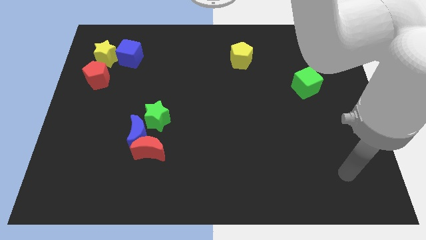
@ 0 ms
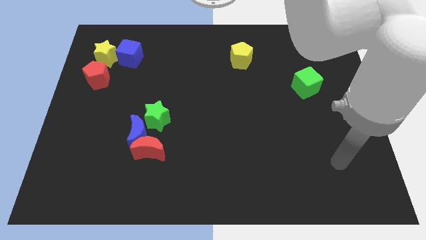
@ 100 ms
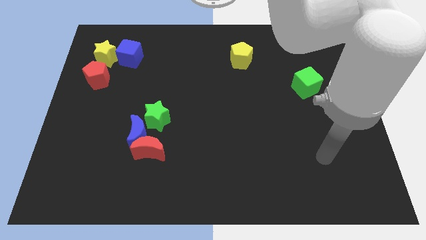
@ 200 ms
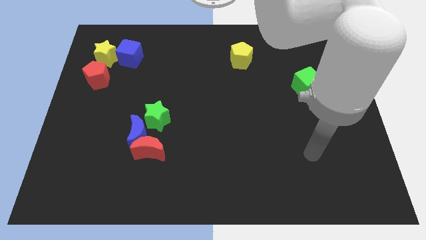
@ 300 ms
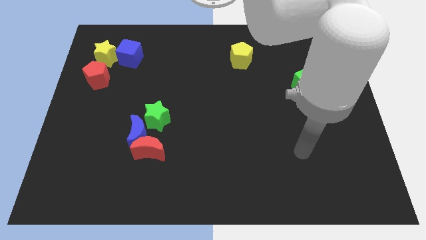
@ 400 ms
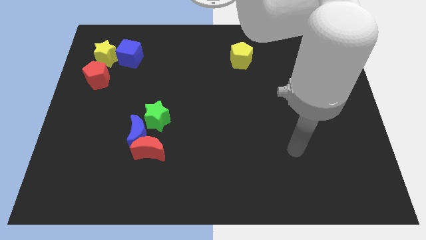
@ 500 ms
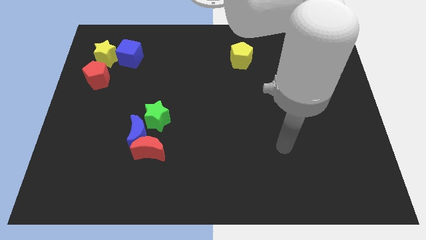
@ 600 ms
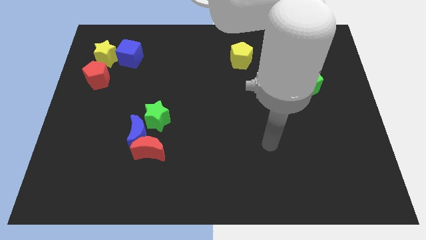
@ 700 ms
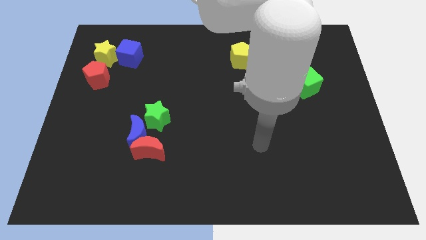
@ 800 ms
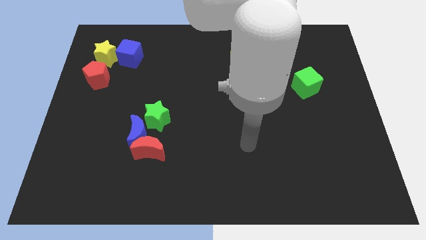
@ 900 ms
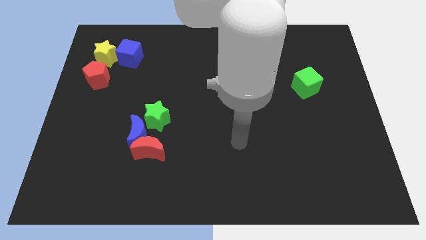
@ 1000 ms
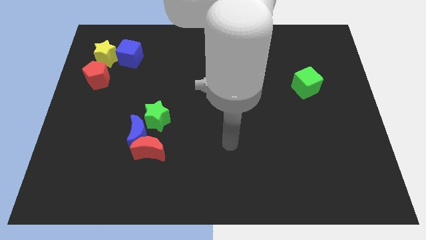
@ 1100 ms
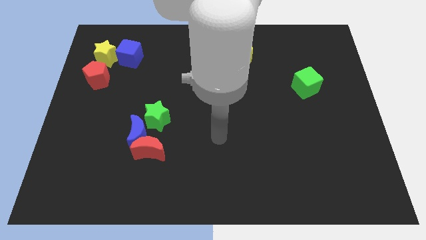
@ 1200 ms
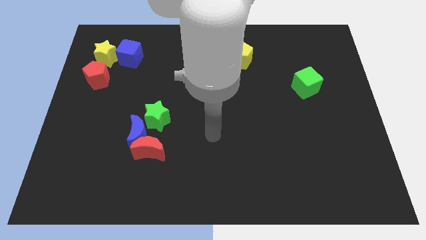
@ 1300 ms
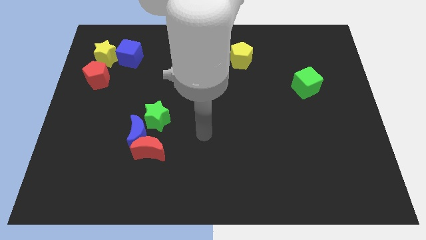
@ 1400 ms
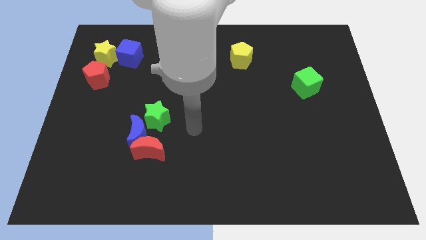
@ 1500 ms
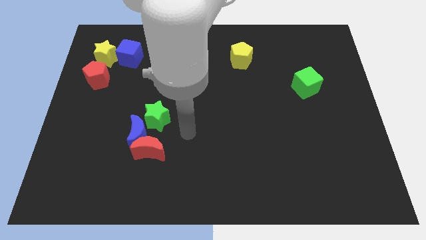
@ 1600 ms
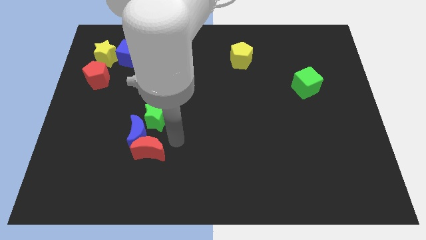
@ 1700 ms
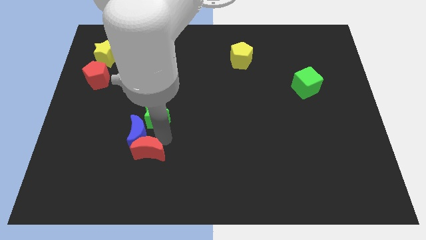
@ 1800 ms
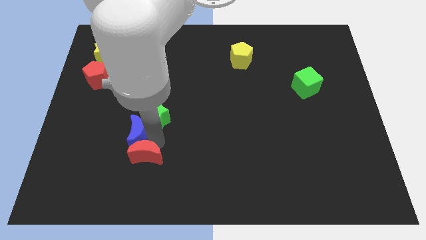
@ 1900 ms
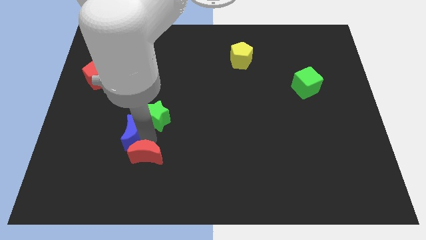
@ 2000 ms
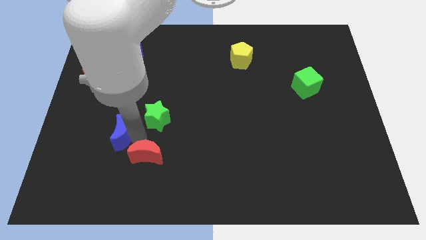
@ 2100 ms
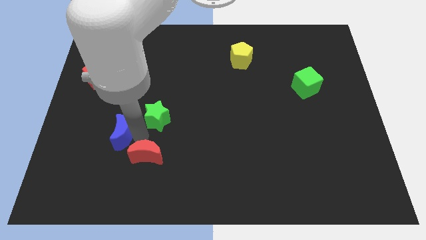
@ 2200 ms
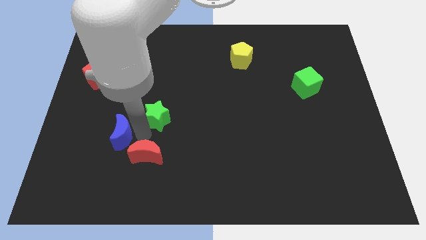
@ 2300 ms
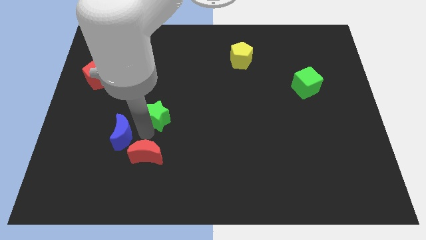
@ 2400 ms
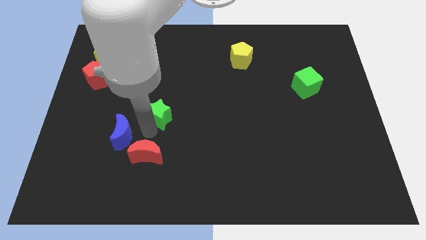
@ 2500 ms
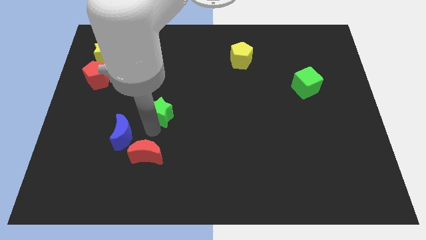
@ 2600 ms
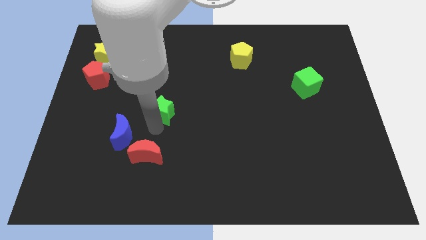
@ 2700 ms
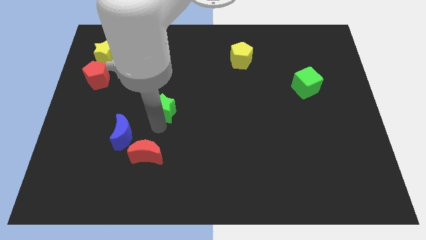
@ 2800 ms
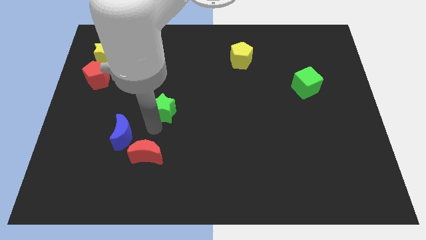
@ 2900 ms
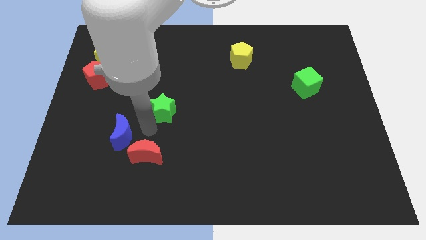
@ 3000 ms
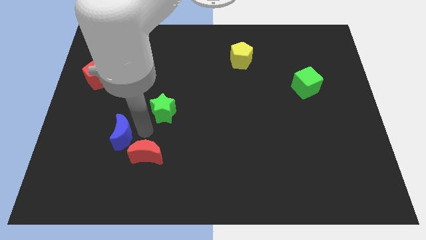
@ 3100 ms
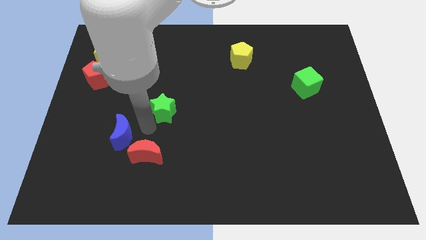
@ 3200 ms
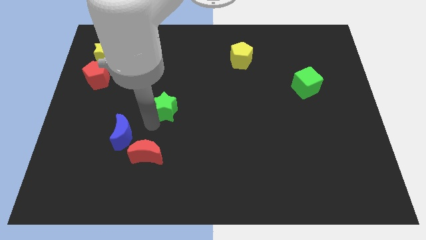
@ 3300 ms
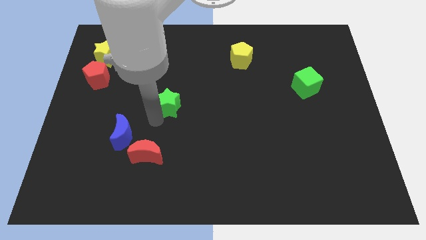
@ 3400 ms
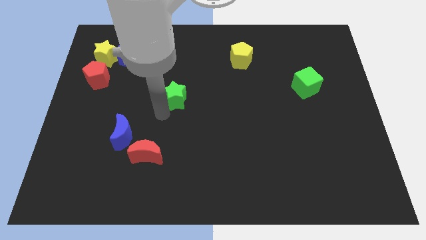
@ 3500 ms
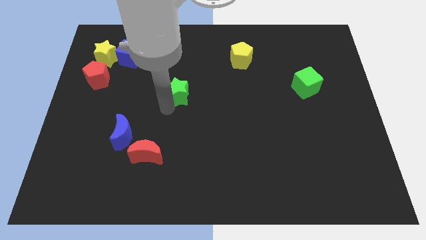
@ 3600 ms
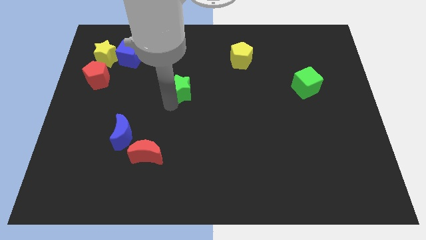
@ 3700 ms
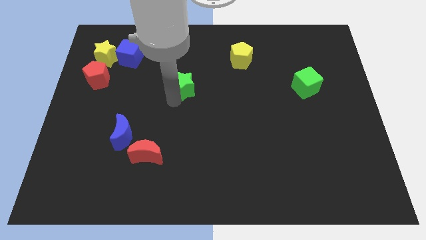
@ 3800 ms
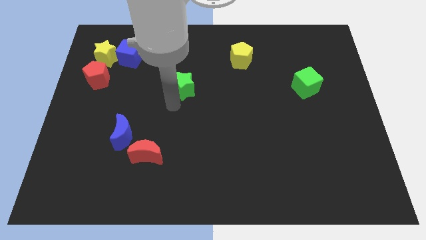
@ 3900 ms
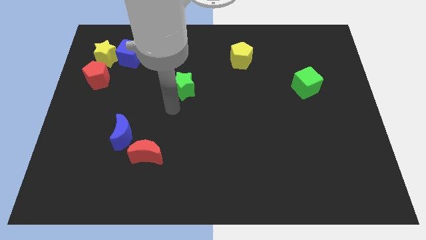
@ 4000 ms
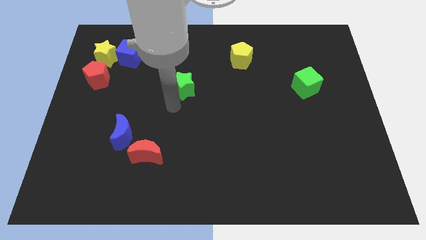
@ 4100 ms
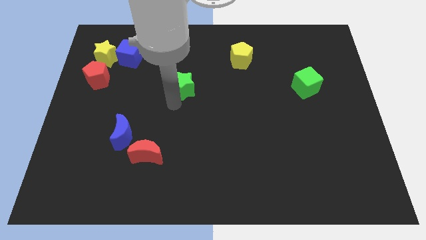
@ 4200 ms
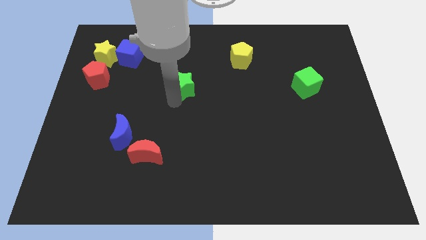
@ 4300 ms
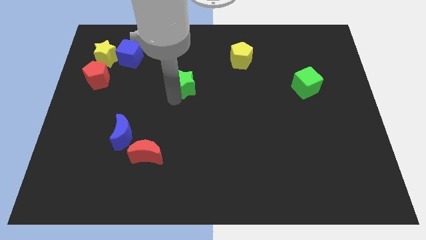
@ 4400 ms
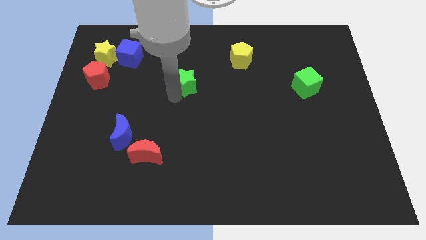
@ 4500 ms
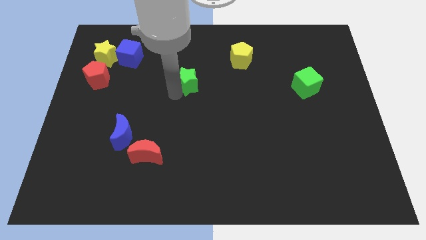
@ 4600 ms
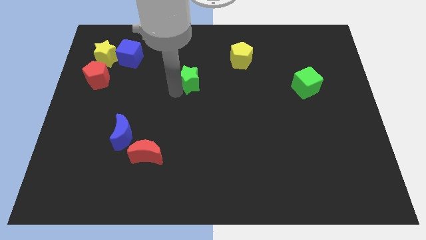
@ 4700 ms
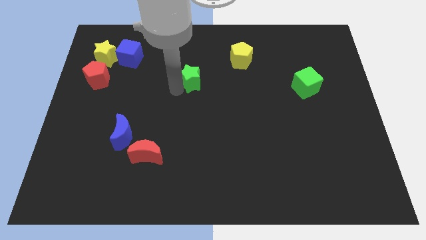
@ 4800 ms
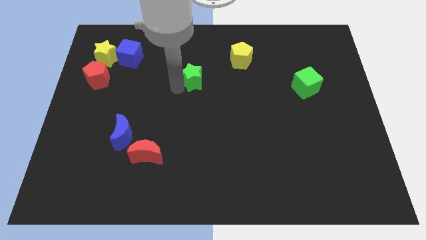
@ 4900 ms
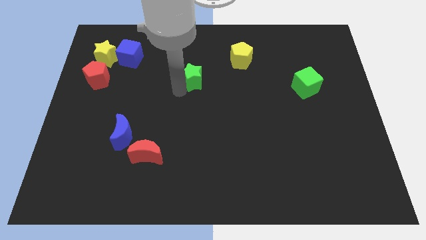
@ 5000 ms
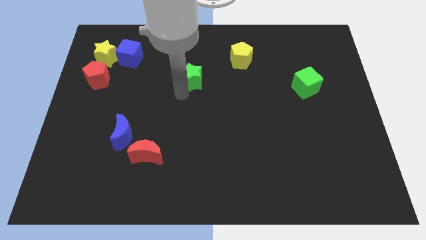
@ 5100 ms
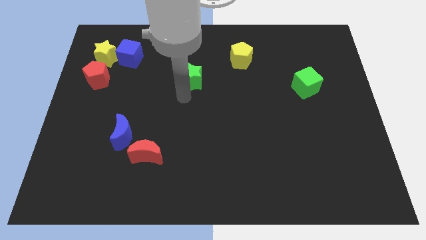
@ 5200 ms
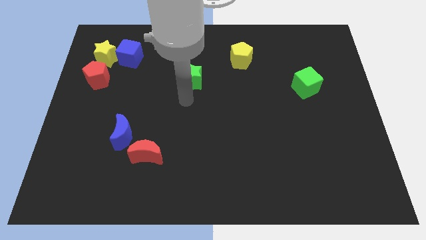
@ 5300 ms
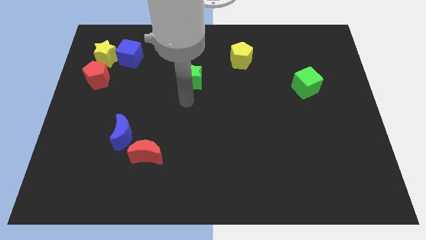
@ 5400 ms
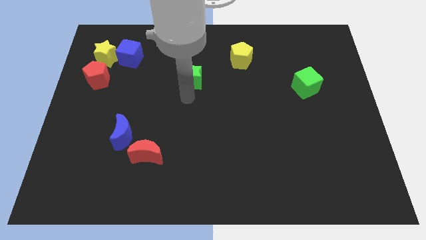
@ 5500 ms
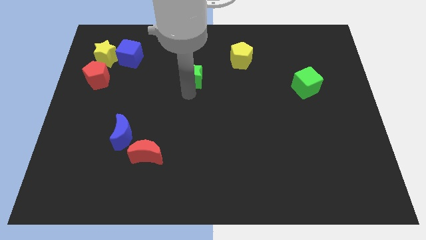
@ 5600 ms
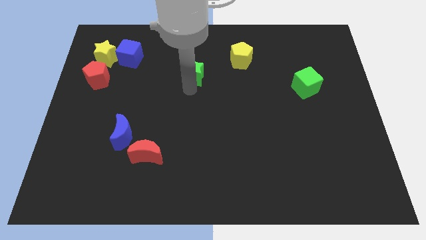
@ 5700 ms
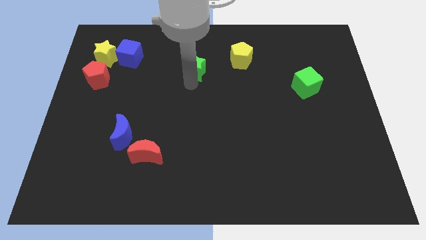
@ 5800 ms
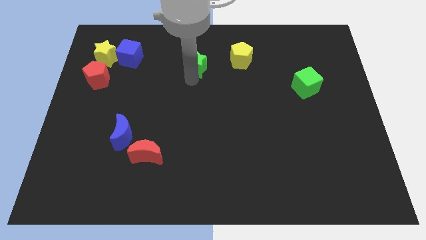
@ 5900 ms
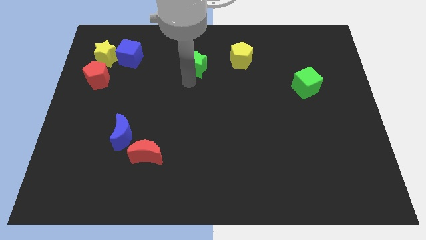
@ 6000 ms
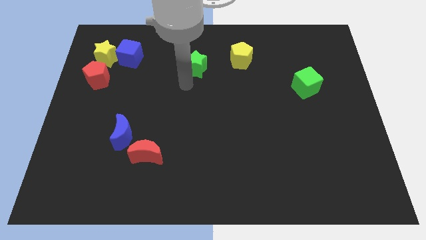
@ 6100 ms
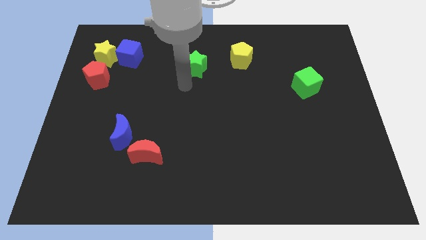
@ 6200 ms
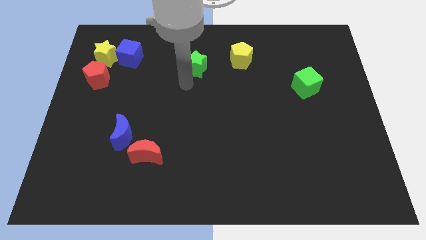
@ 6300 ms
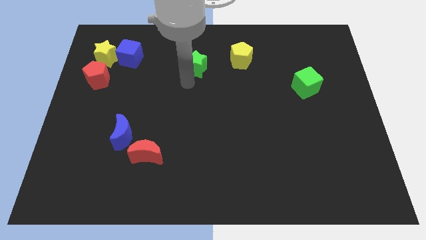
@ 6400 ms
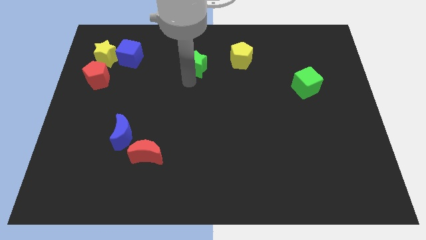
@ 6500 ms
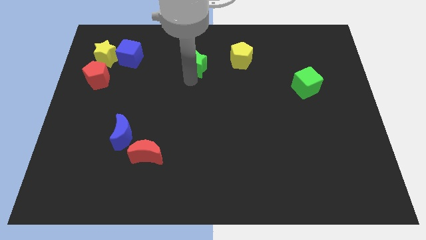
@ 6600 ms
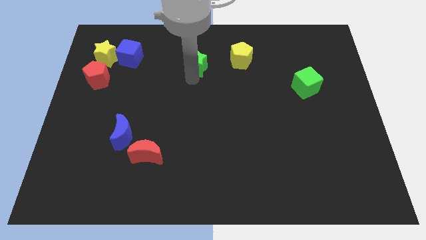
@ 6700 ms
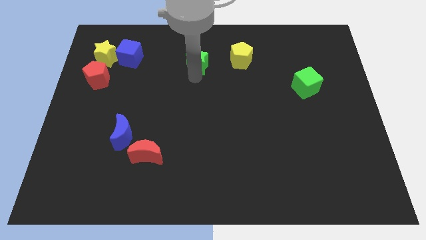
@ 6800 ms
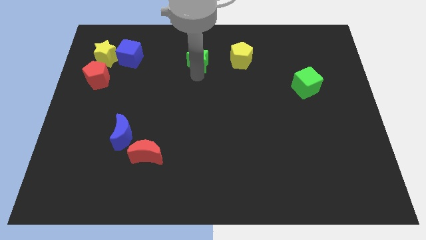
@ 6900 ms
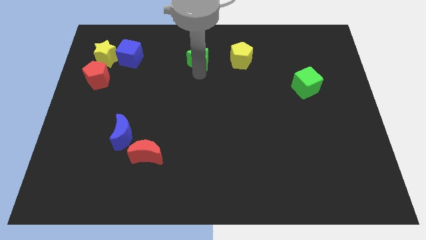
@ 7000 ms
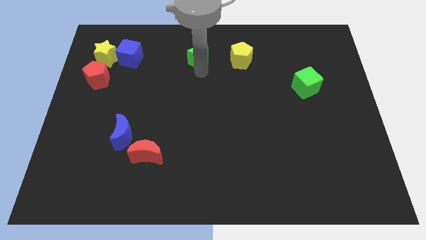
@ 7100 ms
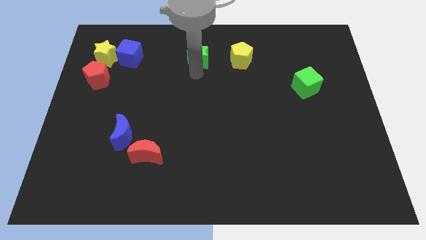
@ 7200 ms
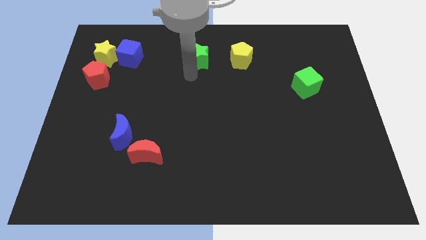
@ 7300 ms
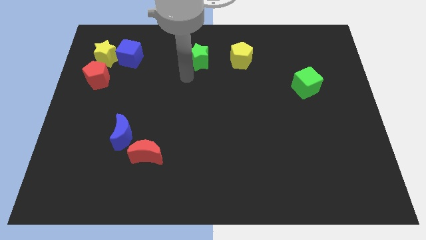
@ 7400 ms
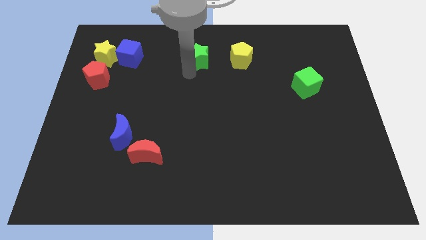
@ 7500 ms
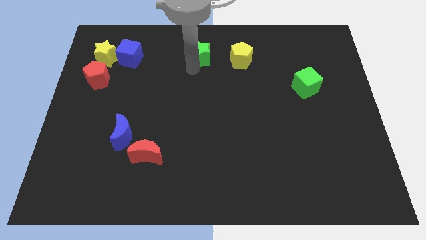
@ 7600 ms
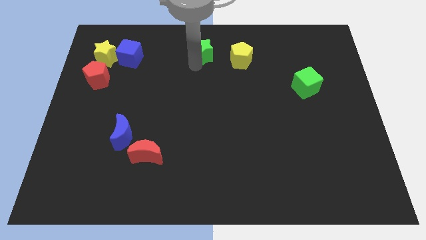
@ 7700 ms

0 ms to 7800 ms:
move the green star to the towards your base

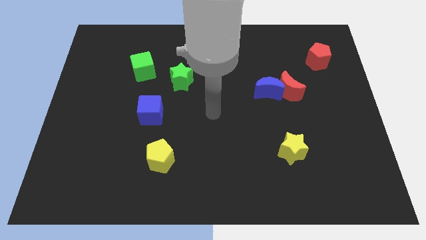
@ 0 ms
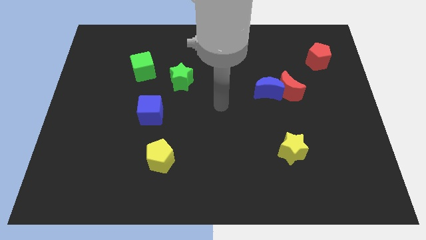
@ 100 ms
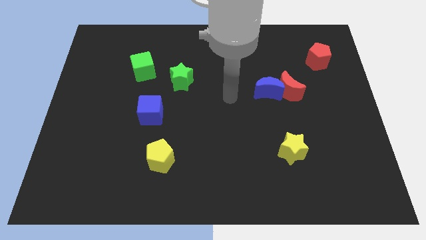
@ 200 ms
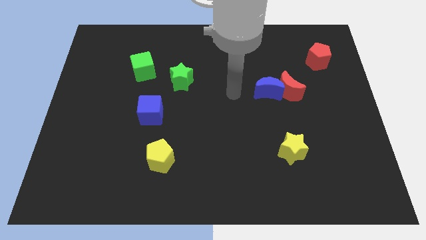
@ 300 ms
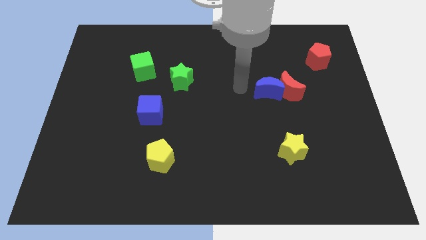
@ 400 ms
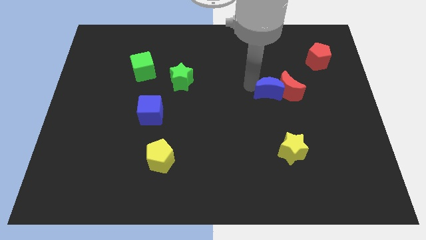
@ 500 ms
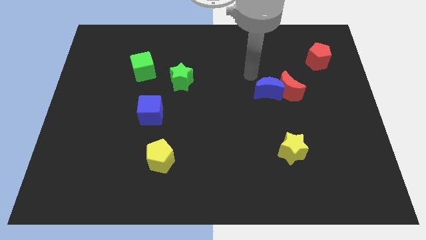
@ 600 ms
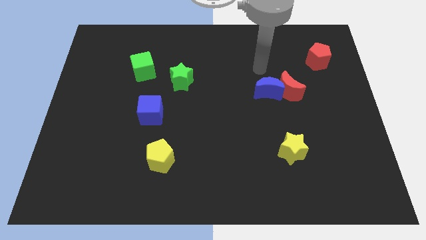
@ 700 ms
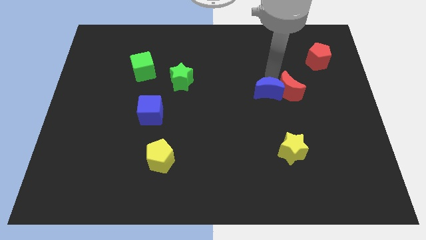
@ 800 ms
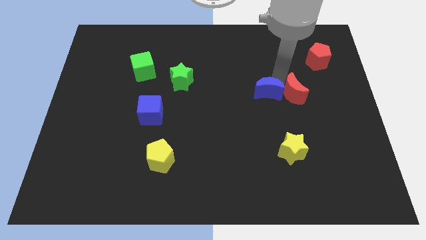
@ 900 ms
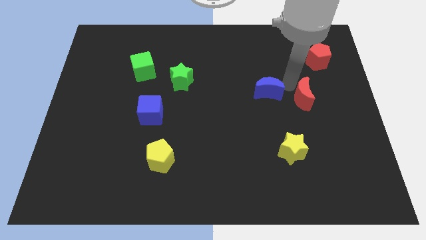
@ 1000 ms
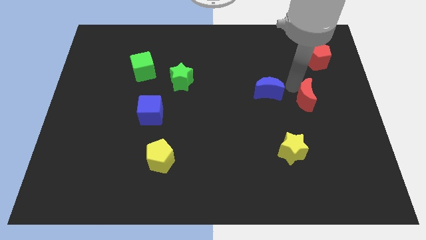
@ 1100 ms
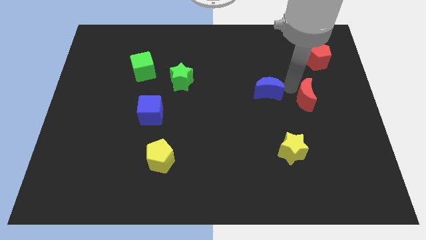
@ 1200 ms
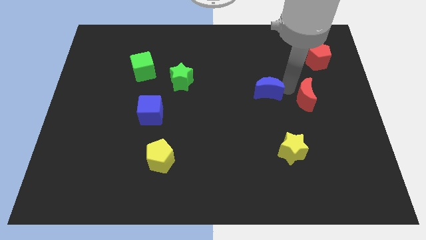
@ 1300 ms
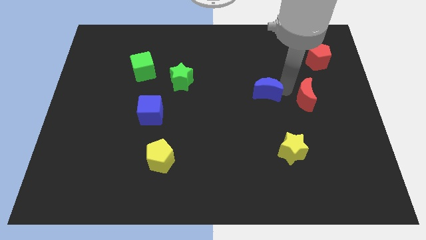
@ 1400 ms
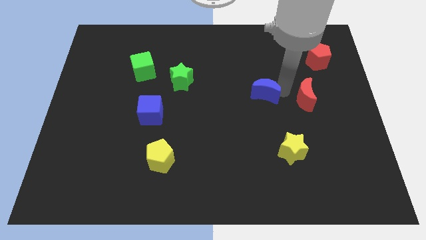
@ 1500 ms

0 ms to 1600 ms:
slide the blue moon to the center of the board
